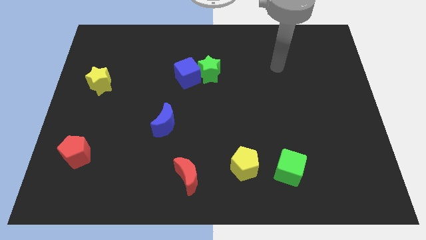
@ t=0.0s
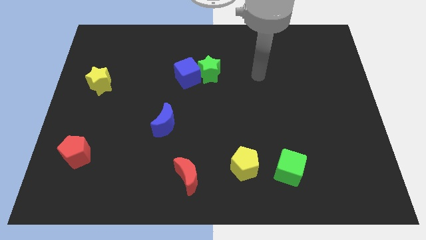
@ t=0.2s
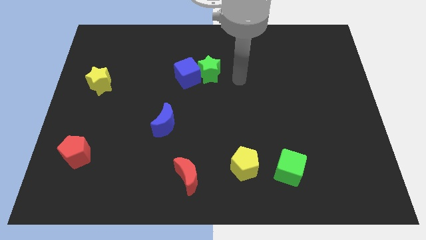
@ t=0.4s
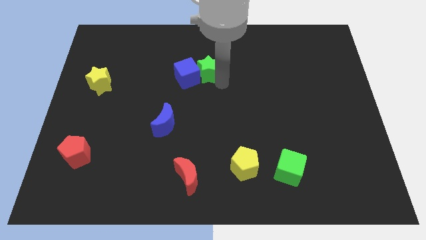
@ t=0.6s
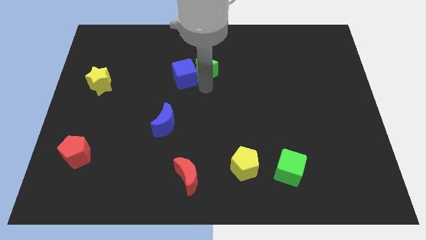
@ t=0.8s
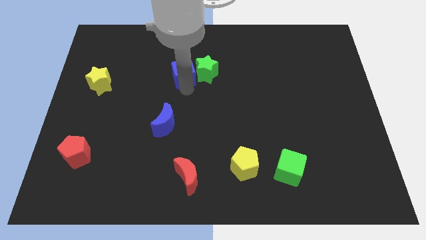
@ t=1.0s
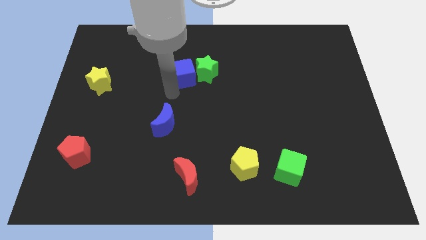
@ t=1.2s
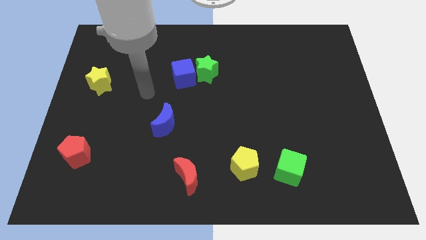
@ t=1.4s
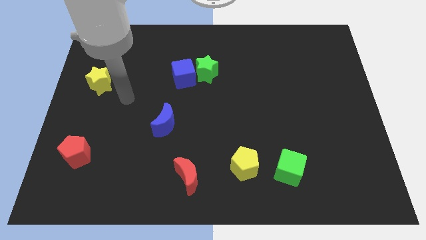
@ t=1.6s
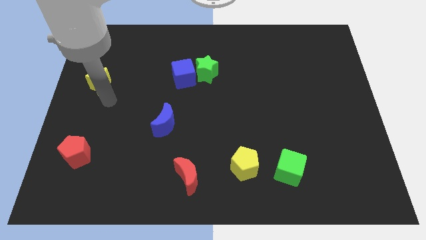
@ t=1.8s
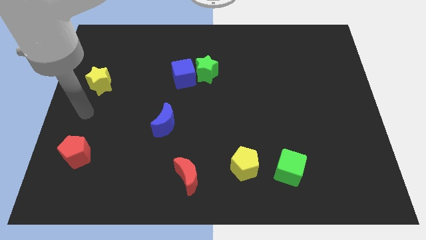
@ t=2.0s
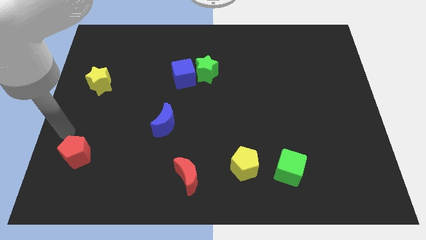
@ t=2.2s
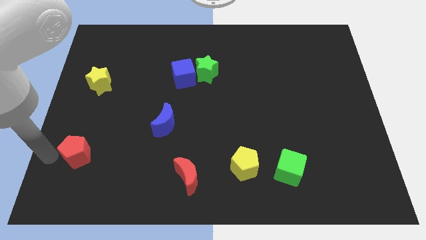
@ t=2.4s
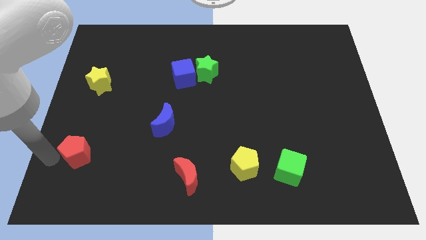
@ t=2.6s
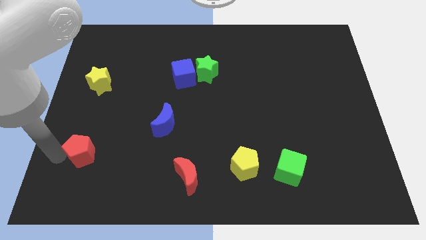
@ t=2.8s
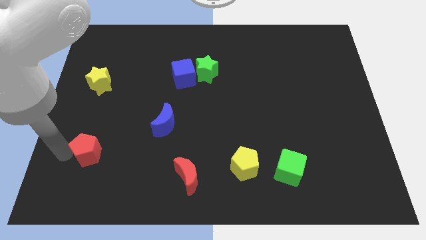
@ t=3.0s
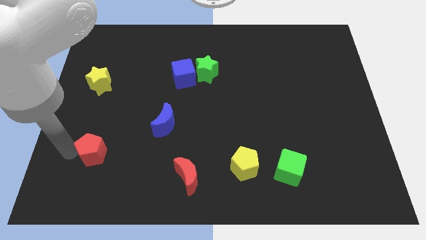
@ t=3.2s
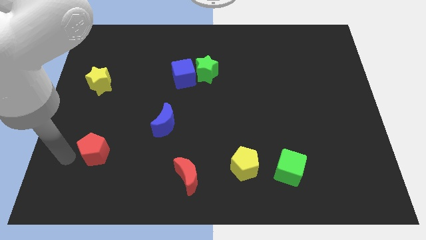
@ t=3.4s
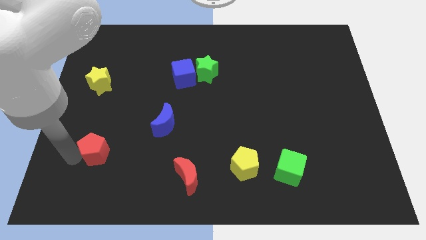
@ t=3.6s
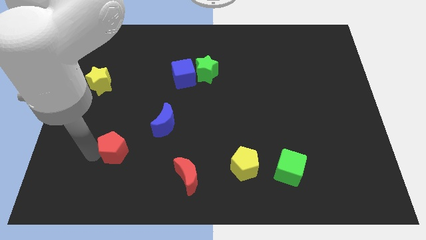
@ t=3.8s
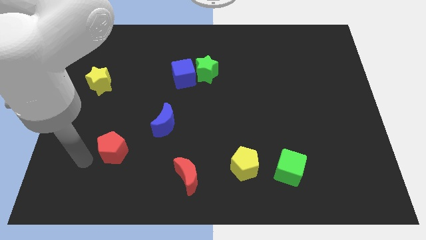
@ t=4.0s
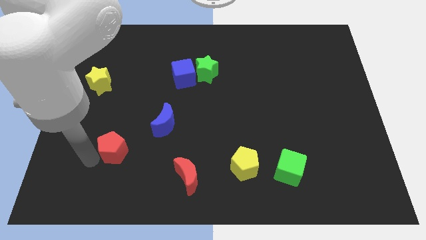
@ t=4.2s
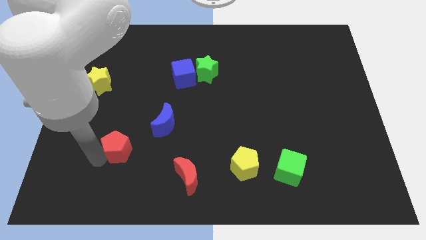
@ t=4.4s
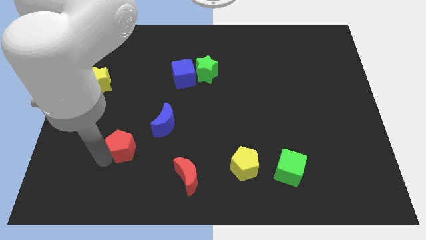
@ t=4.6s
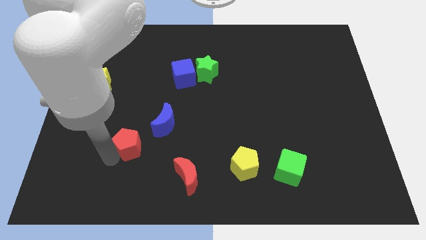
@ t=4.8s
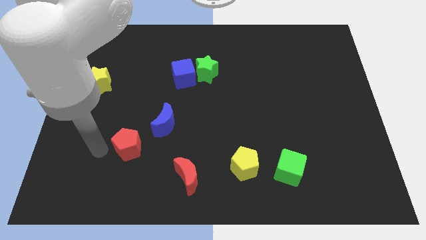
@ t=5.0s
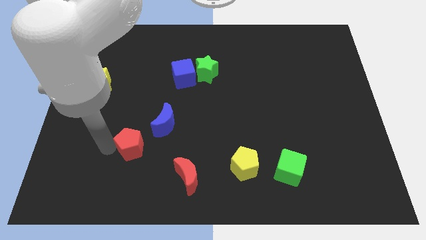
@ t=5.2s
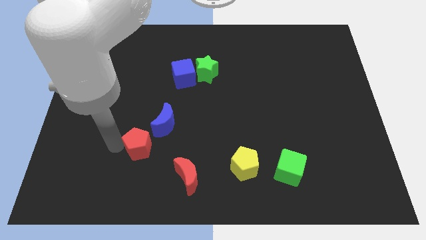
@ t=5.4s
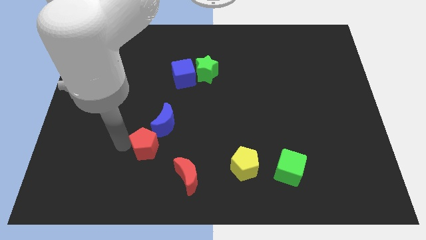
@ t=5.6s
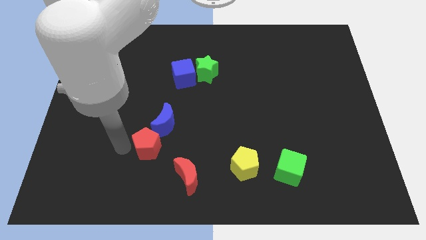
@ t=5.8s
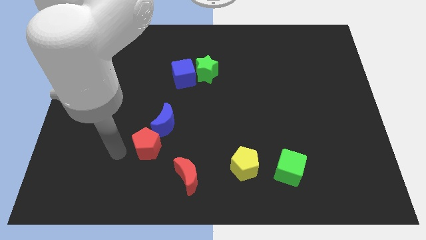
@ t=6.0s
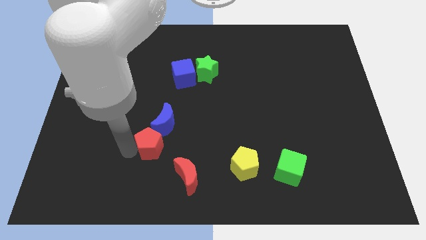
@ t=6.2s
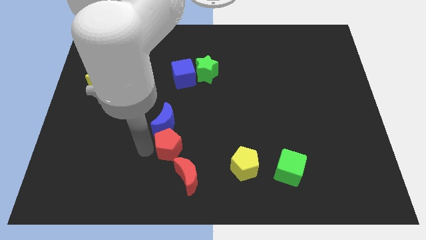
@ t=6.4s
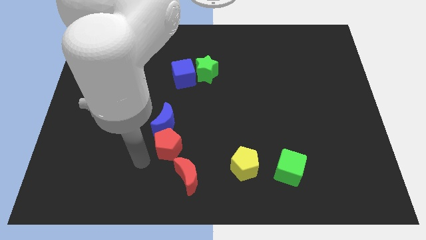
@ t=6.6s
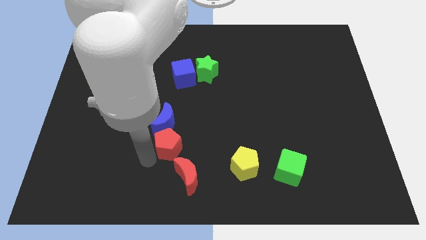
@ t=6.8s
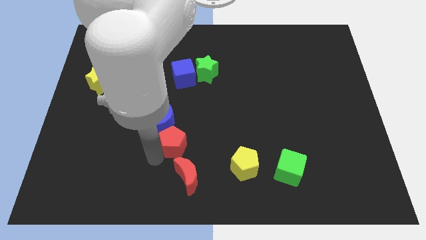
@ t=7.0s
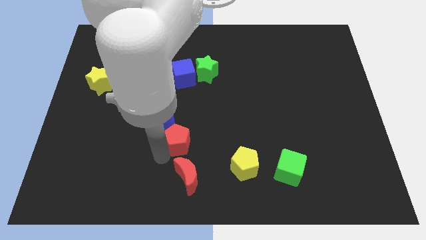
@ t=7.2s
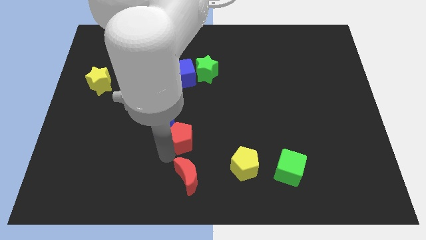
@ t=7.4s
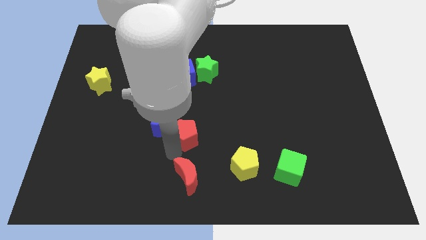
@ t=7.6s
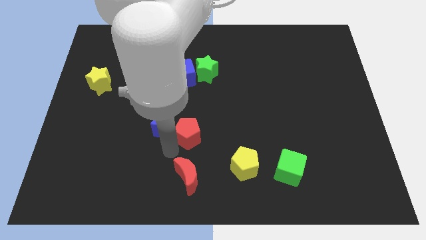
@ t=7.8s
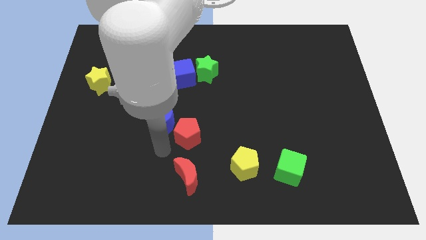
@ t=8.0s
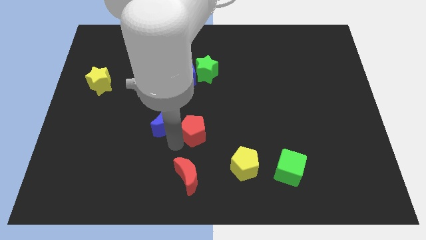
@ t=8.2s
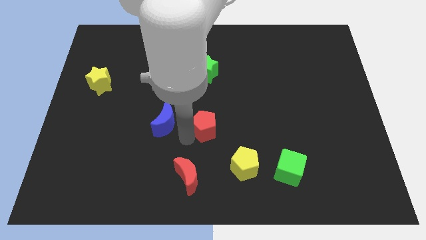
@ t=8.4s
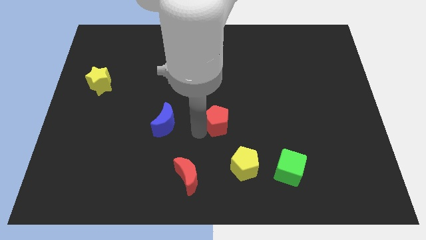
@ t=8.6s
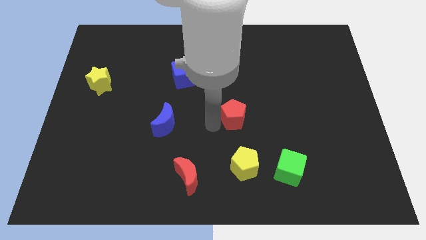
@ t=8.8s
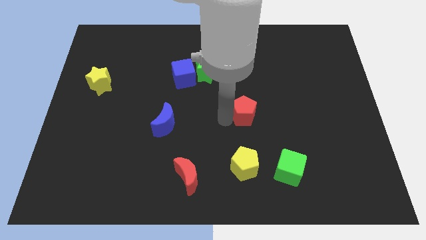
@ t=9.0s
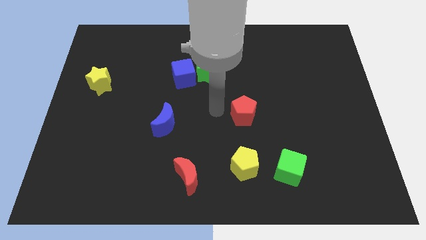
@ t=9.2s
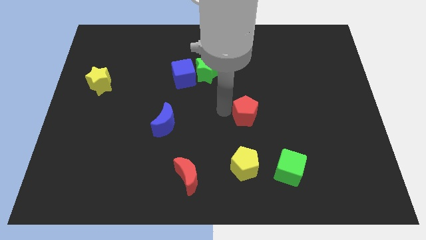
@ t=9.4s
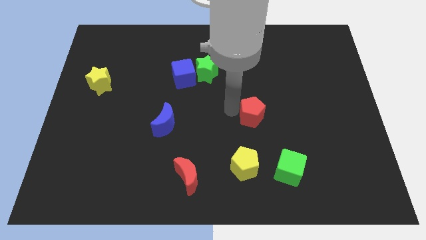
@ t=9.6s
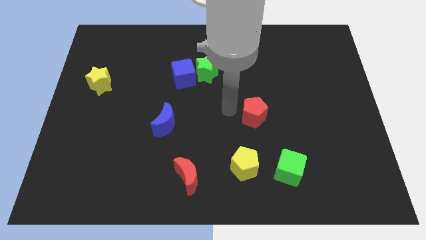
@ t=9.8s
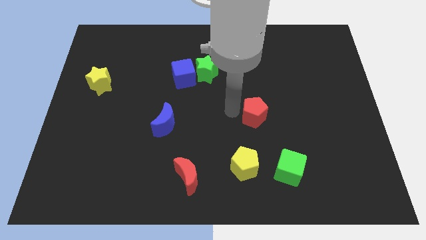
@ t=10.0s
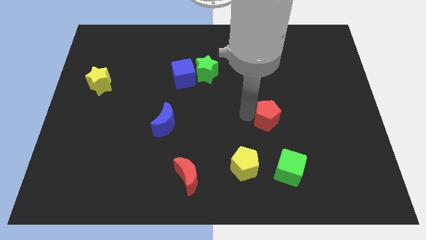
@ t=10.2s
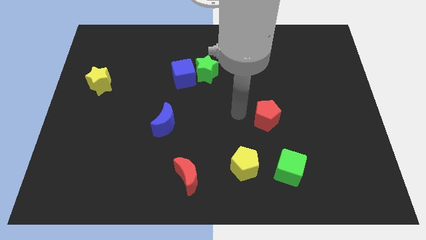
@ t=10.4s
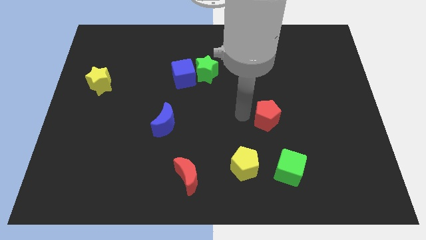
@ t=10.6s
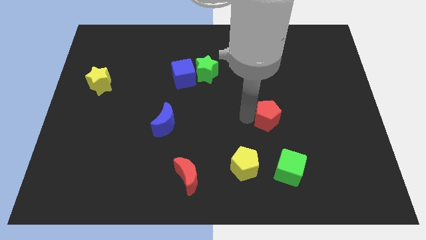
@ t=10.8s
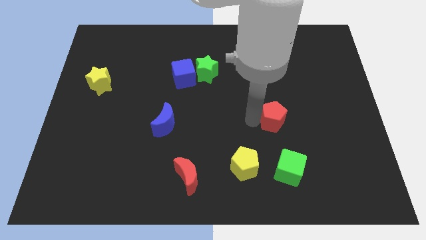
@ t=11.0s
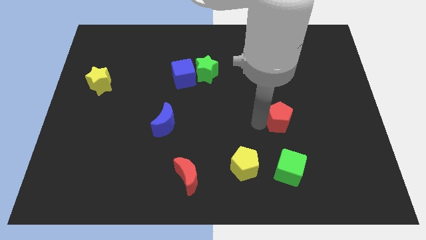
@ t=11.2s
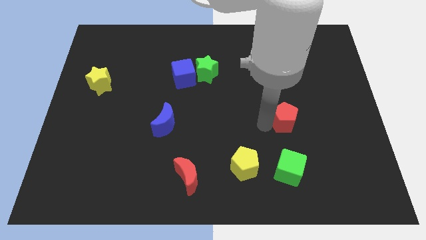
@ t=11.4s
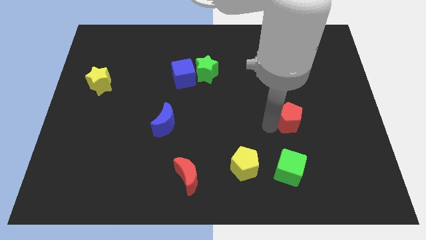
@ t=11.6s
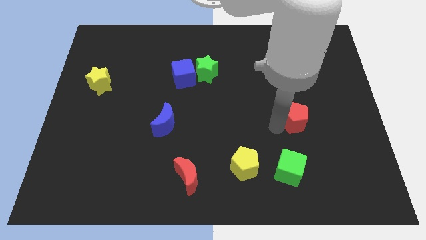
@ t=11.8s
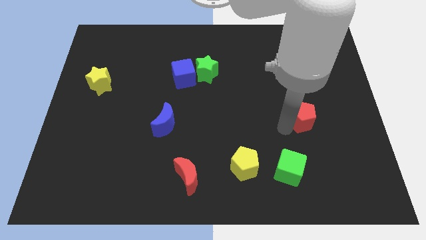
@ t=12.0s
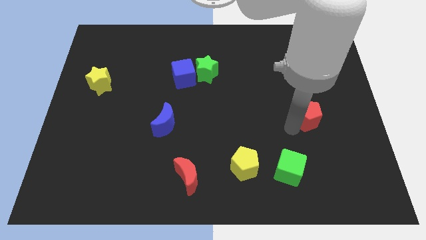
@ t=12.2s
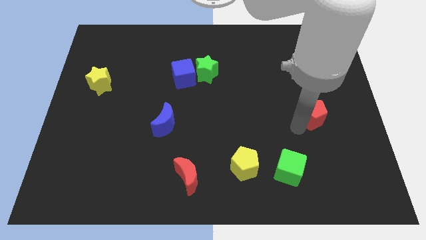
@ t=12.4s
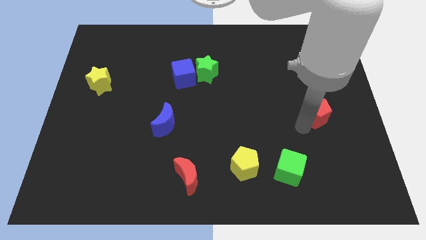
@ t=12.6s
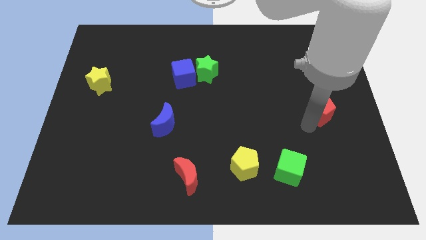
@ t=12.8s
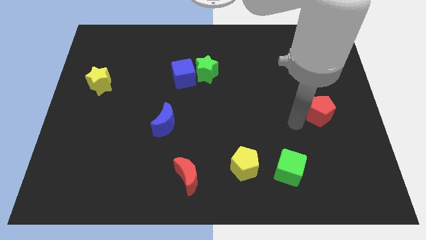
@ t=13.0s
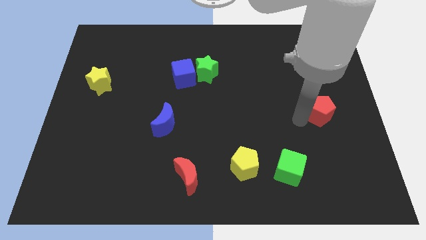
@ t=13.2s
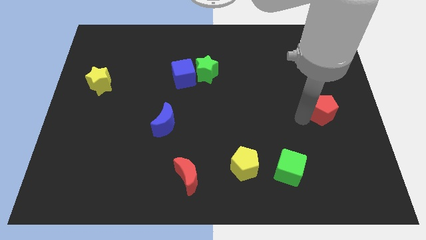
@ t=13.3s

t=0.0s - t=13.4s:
push the red pentagon to the right side
